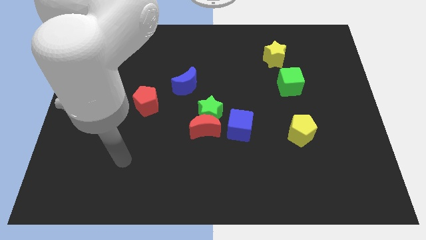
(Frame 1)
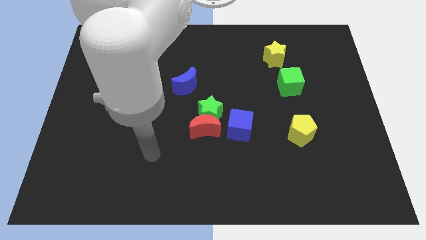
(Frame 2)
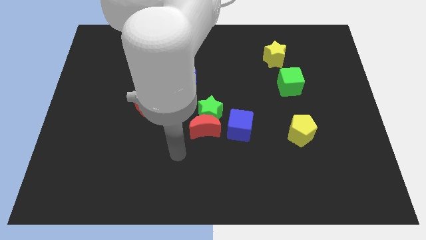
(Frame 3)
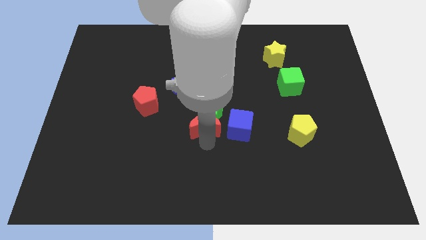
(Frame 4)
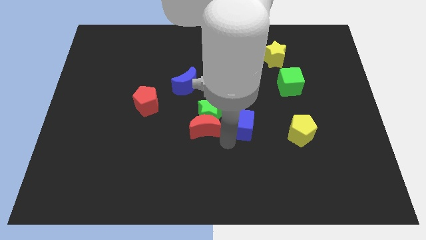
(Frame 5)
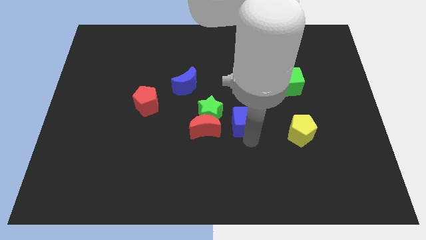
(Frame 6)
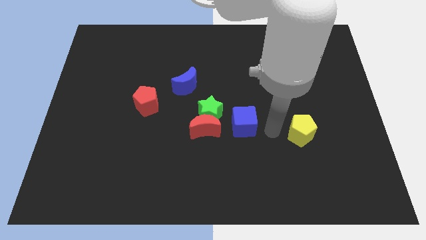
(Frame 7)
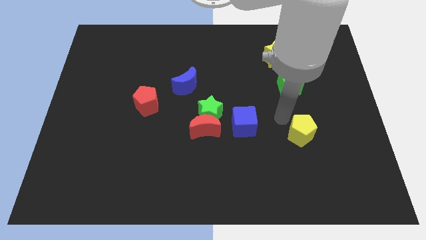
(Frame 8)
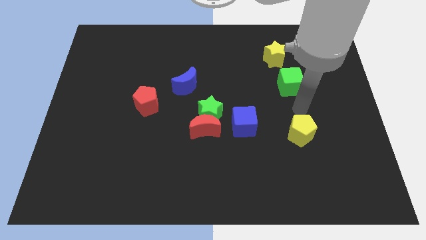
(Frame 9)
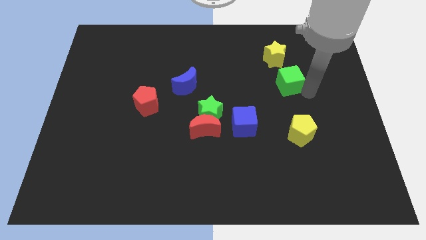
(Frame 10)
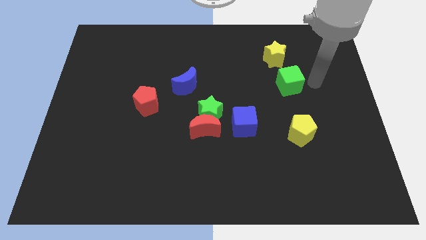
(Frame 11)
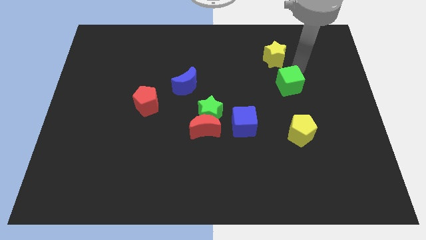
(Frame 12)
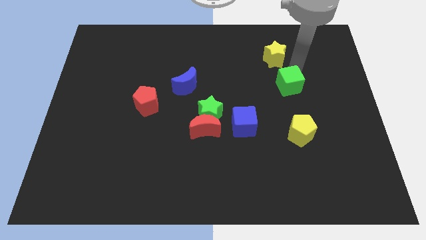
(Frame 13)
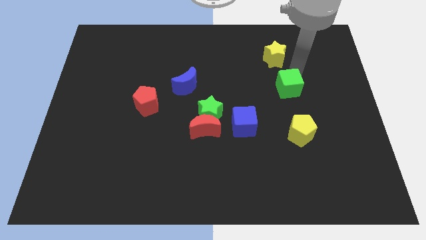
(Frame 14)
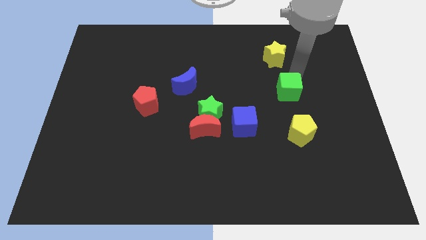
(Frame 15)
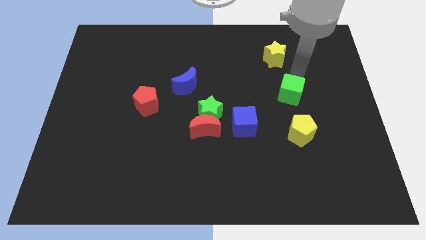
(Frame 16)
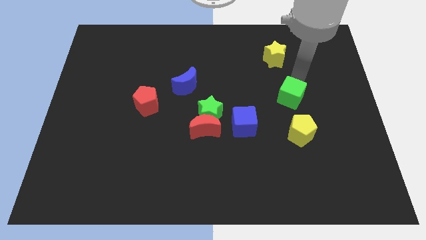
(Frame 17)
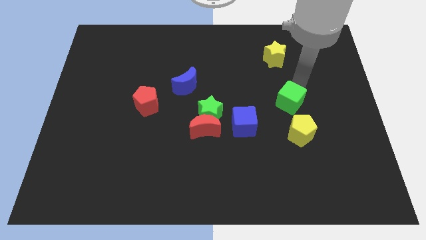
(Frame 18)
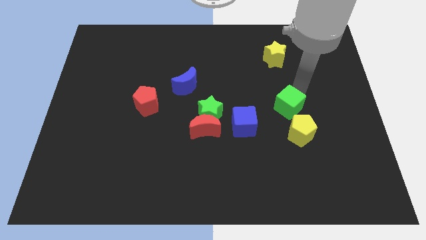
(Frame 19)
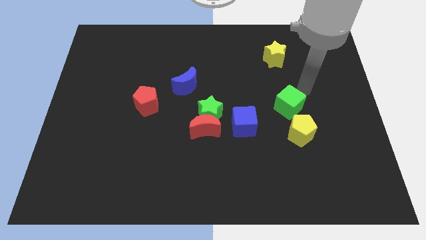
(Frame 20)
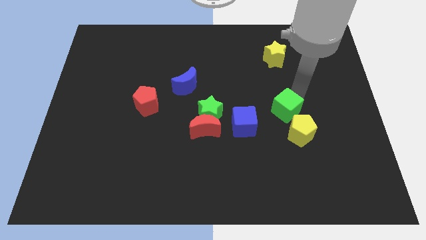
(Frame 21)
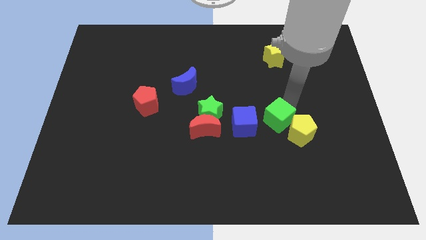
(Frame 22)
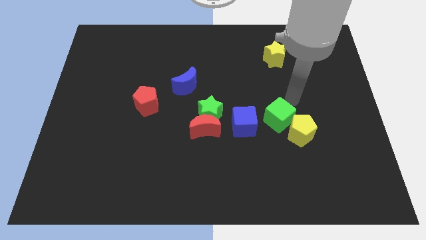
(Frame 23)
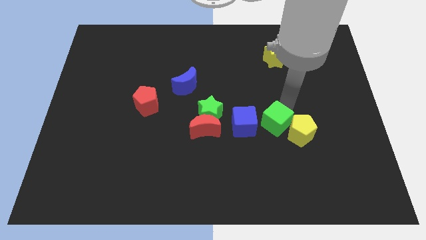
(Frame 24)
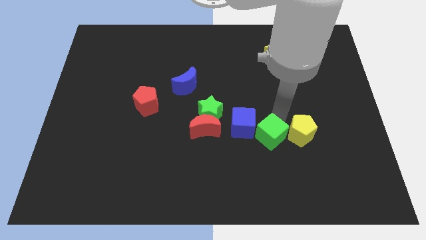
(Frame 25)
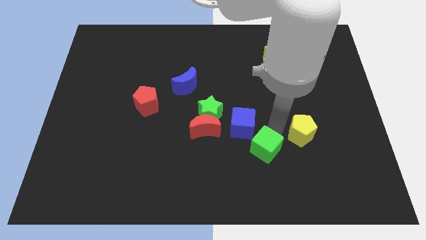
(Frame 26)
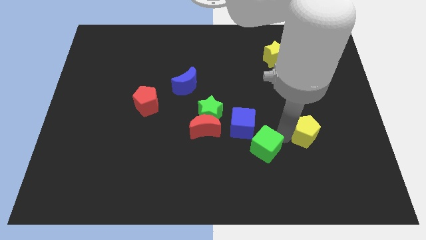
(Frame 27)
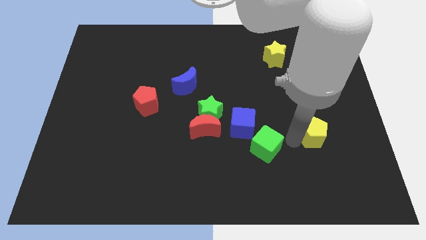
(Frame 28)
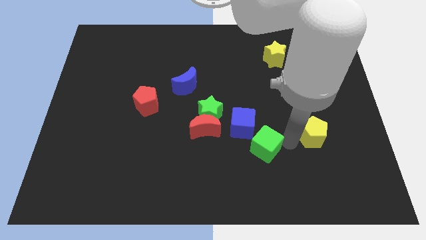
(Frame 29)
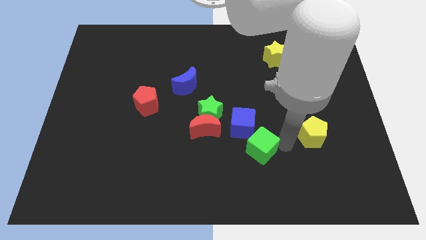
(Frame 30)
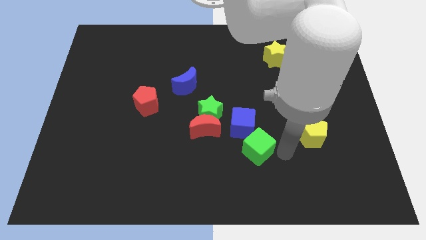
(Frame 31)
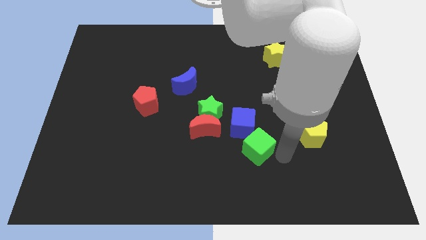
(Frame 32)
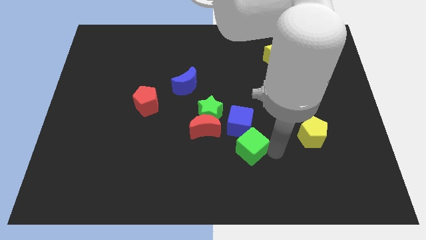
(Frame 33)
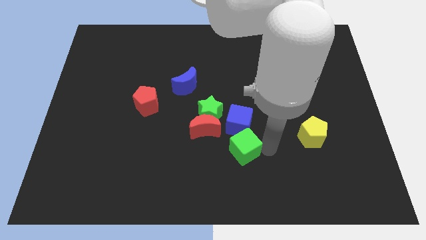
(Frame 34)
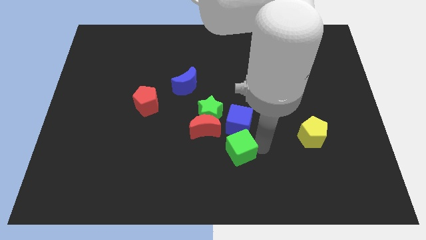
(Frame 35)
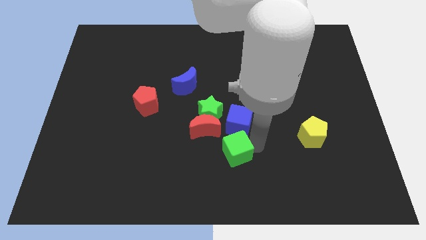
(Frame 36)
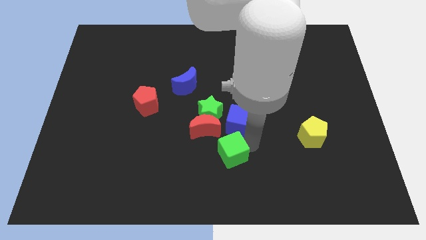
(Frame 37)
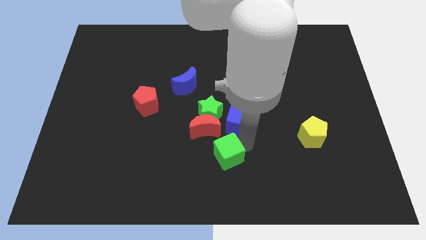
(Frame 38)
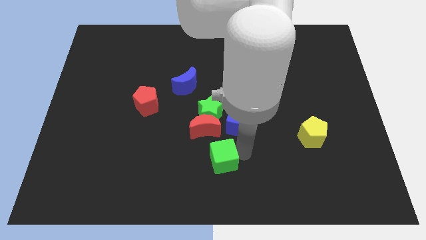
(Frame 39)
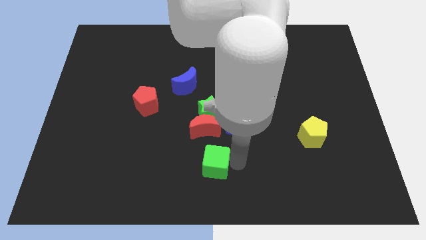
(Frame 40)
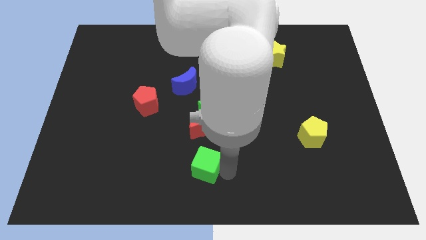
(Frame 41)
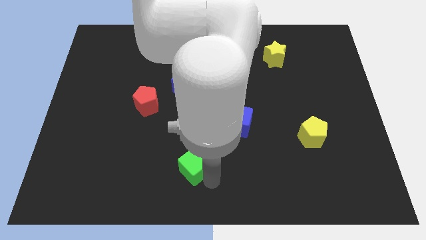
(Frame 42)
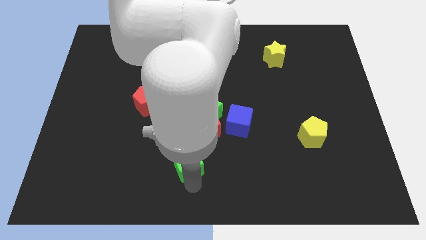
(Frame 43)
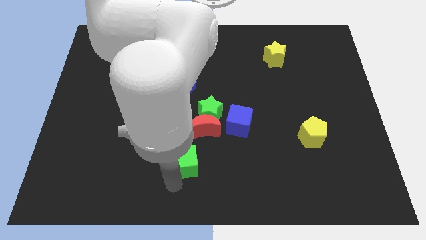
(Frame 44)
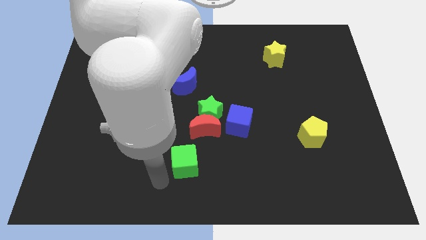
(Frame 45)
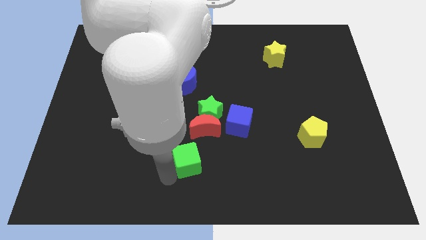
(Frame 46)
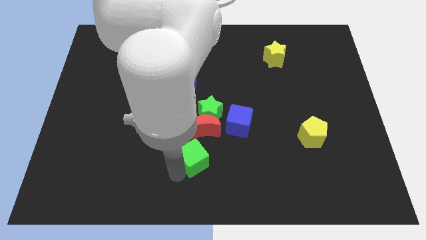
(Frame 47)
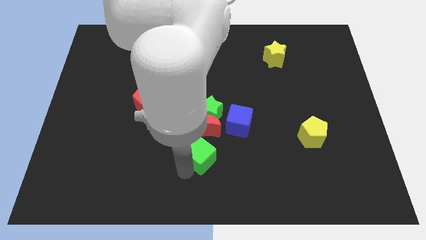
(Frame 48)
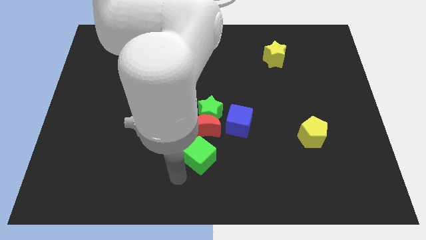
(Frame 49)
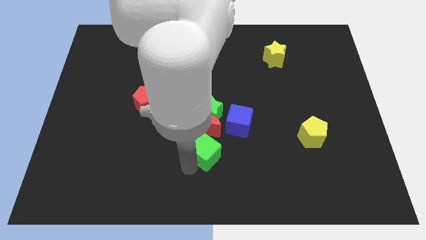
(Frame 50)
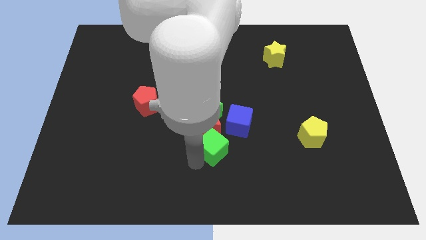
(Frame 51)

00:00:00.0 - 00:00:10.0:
put the green cube next to the red moon

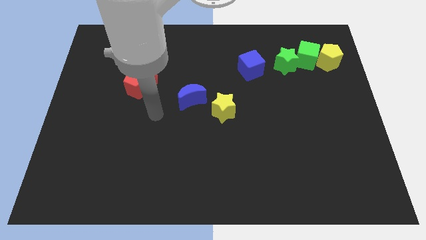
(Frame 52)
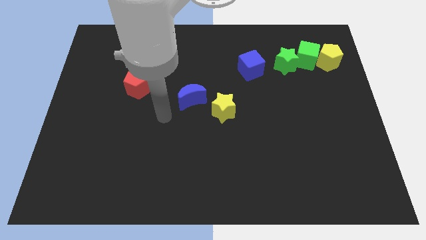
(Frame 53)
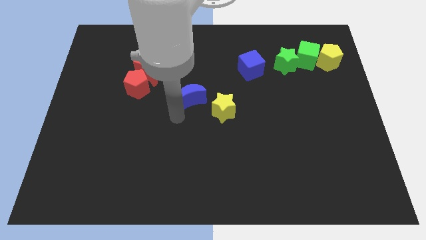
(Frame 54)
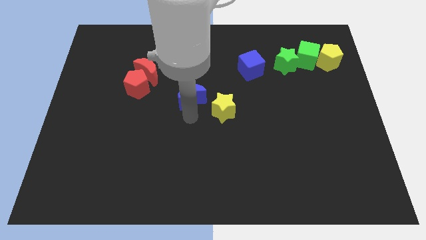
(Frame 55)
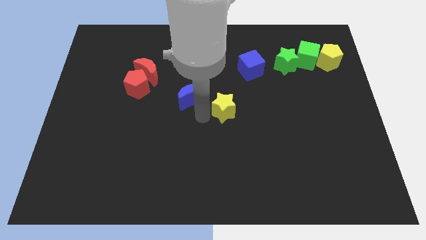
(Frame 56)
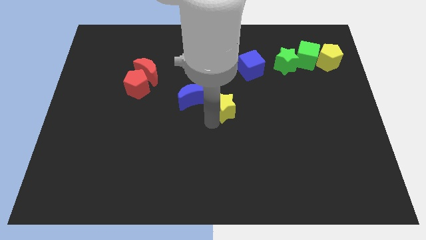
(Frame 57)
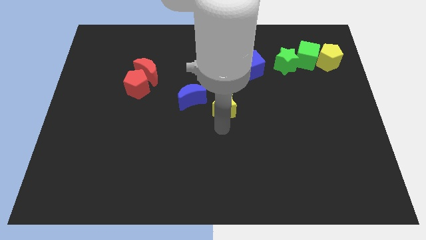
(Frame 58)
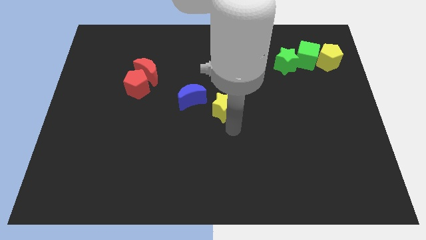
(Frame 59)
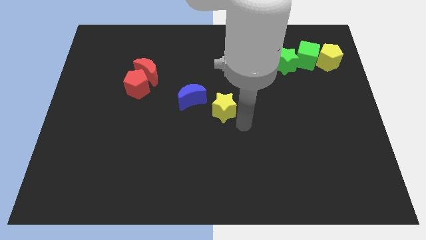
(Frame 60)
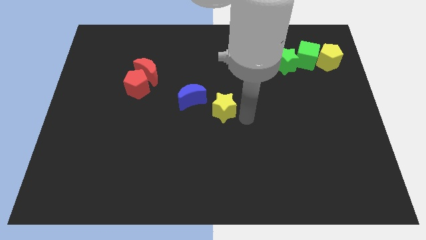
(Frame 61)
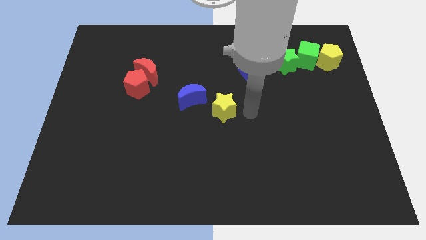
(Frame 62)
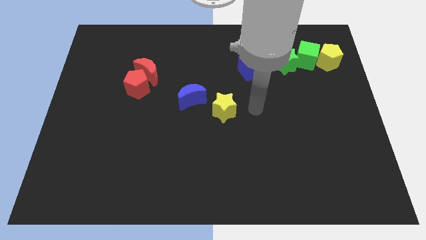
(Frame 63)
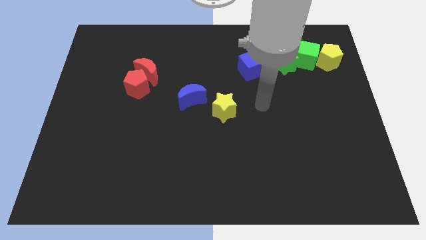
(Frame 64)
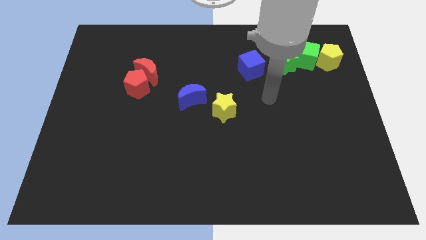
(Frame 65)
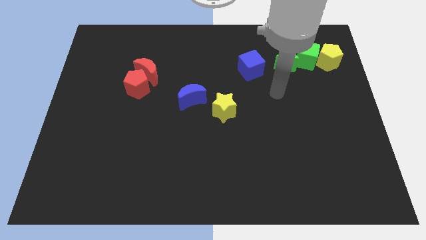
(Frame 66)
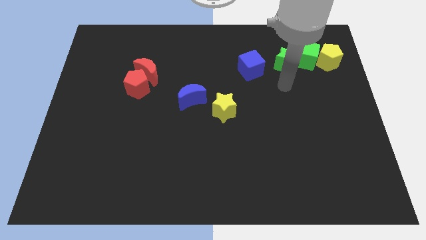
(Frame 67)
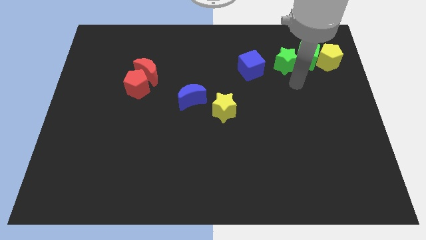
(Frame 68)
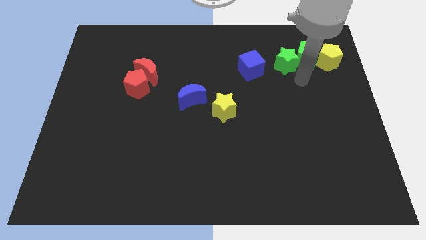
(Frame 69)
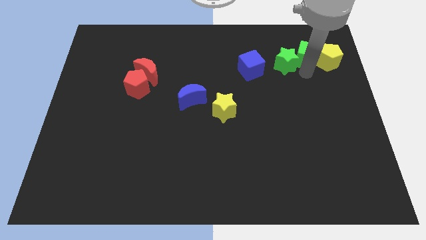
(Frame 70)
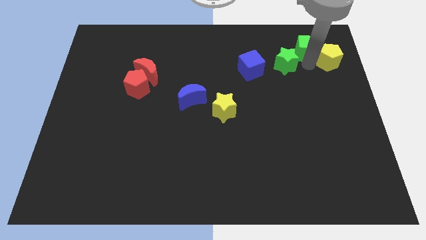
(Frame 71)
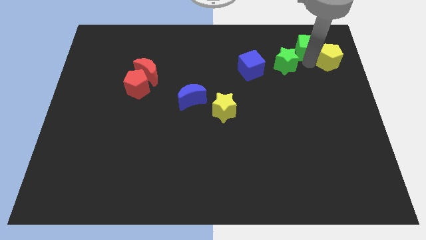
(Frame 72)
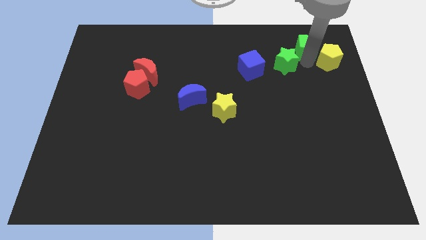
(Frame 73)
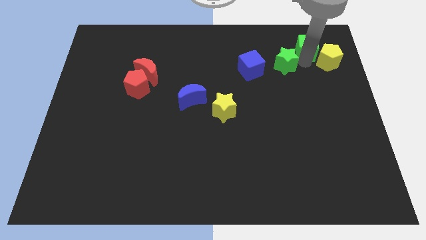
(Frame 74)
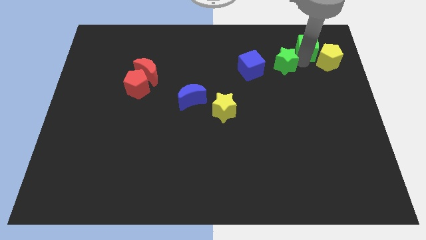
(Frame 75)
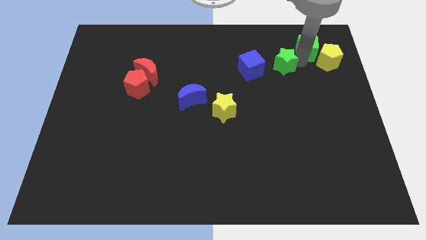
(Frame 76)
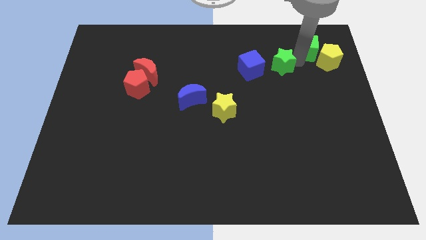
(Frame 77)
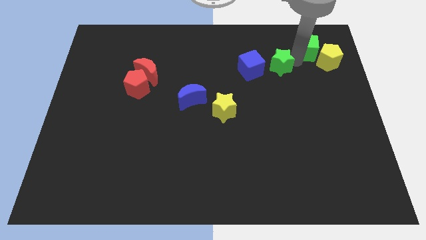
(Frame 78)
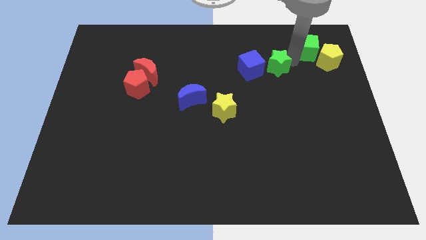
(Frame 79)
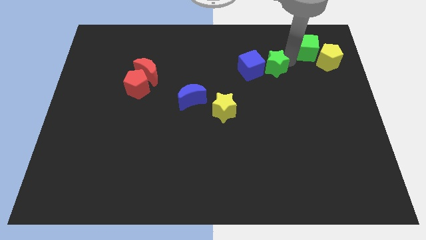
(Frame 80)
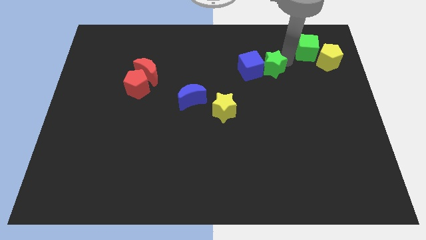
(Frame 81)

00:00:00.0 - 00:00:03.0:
move the green star towards the blue cube
